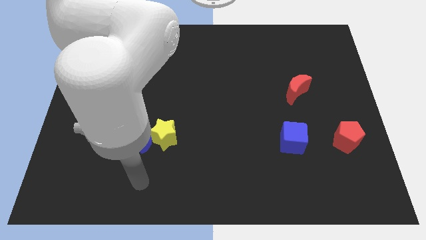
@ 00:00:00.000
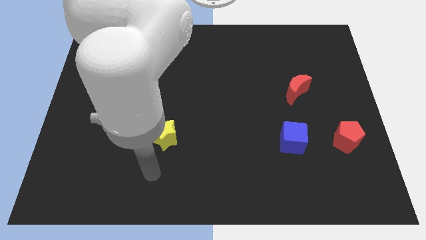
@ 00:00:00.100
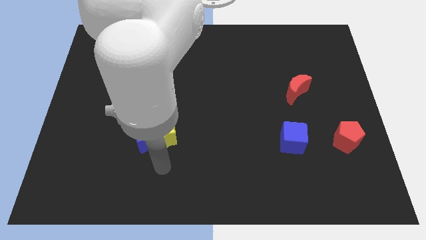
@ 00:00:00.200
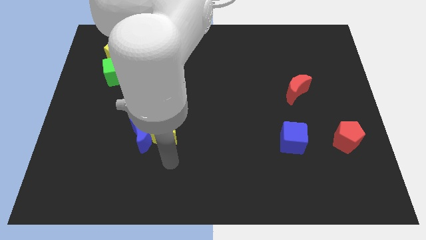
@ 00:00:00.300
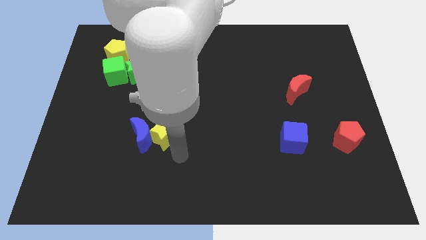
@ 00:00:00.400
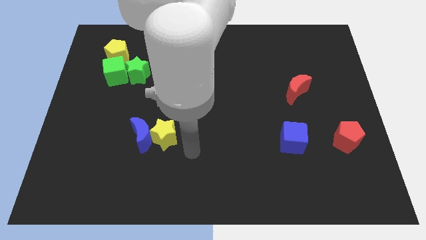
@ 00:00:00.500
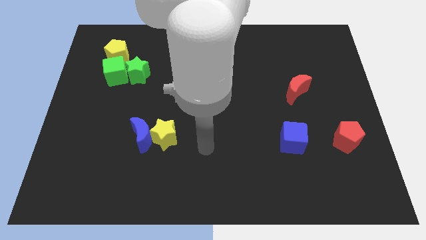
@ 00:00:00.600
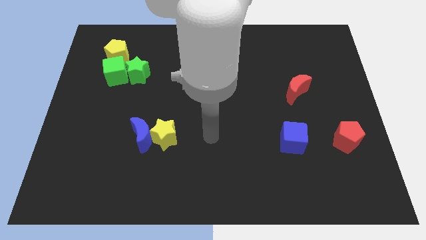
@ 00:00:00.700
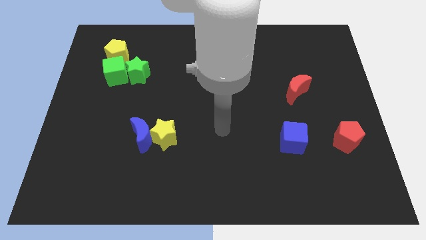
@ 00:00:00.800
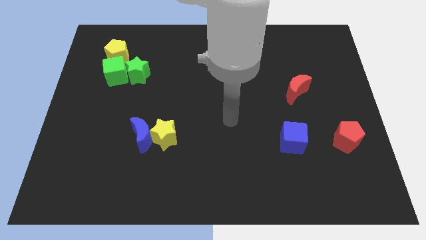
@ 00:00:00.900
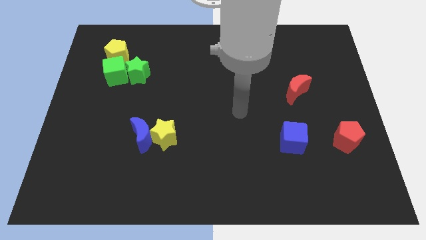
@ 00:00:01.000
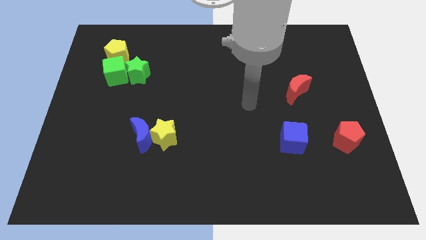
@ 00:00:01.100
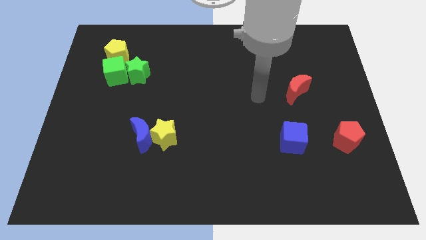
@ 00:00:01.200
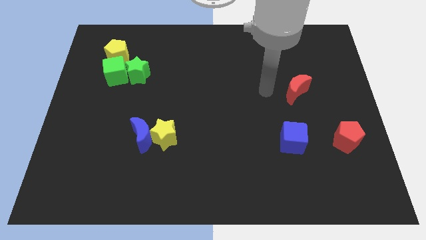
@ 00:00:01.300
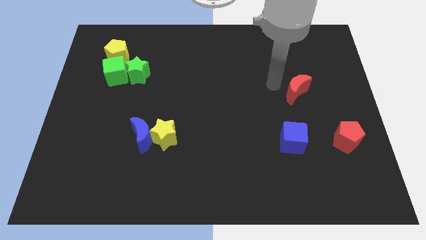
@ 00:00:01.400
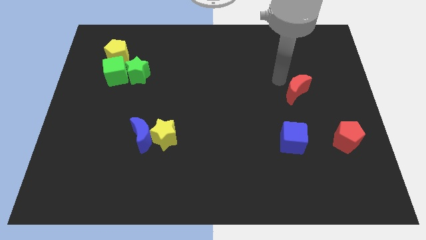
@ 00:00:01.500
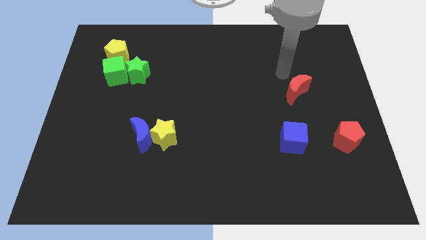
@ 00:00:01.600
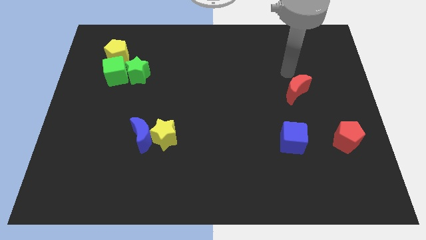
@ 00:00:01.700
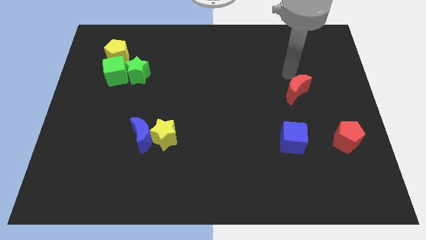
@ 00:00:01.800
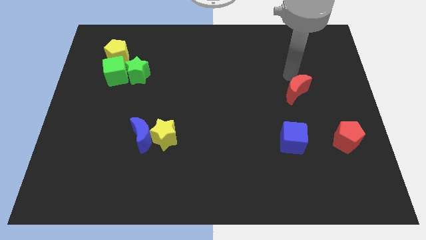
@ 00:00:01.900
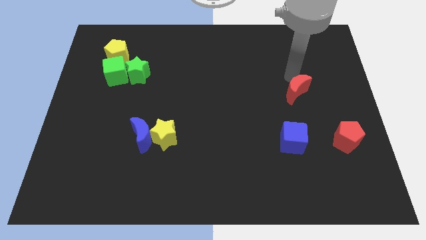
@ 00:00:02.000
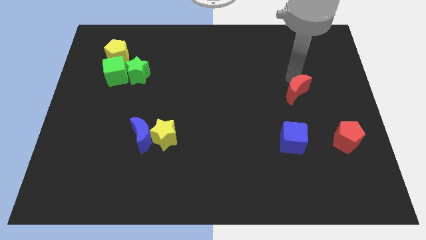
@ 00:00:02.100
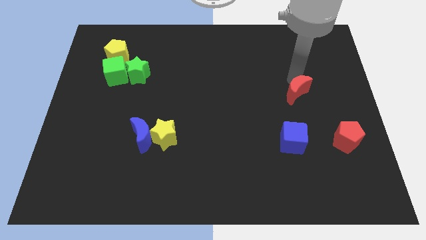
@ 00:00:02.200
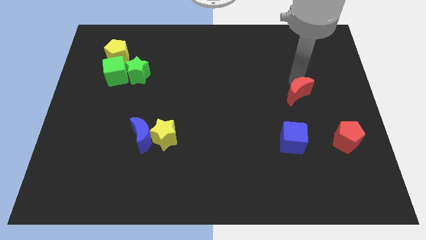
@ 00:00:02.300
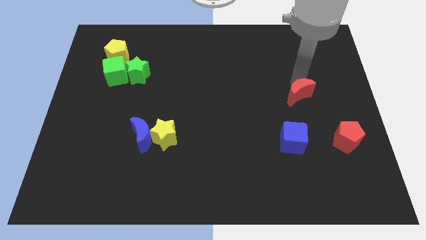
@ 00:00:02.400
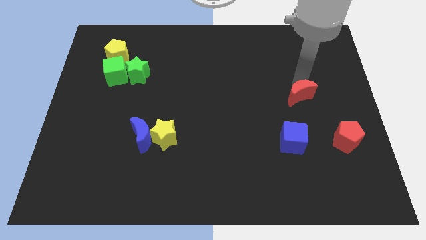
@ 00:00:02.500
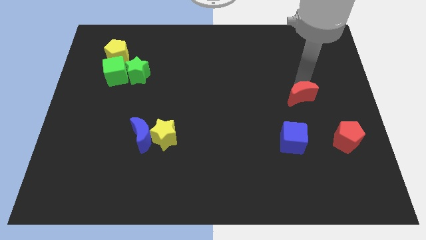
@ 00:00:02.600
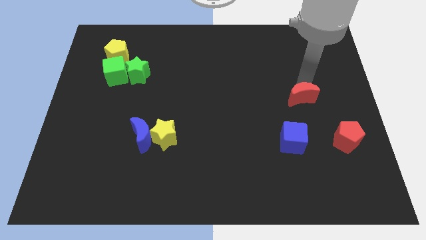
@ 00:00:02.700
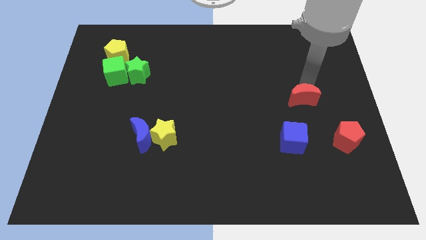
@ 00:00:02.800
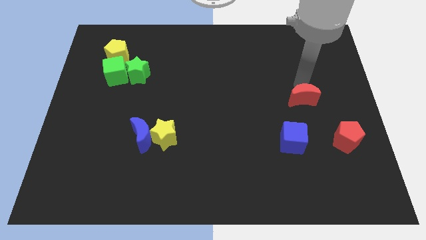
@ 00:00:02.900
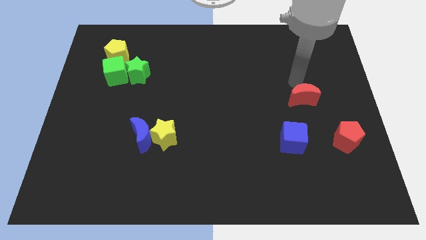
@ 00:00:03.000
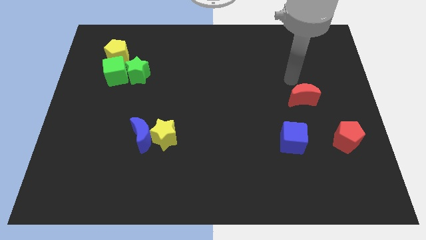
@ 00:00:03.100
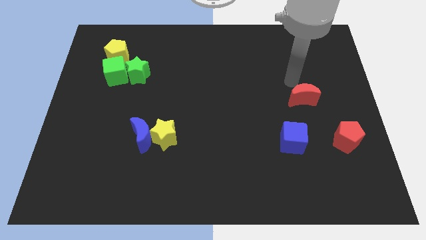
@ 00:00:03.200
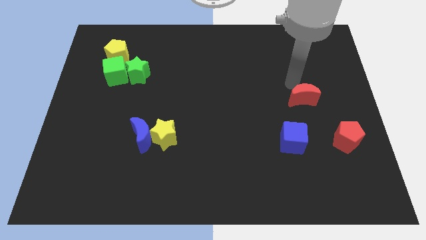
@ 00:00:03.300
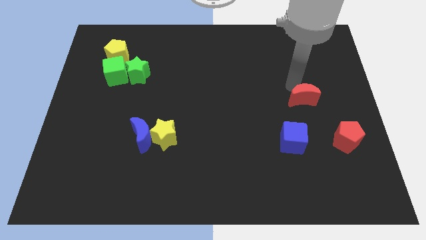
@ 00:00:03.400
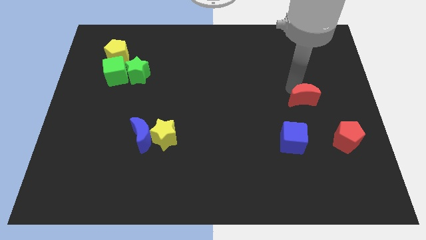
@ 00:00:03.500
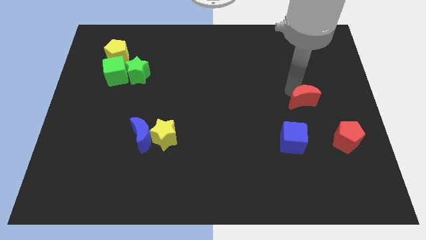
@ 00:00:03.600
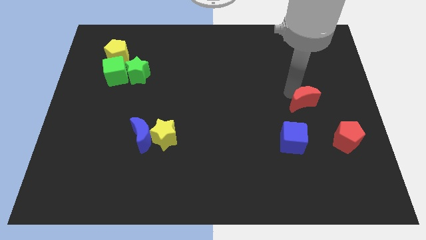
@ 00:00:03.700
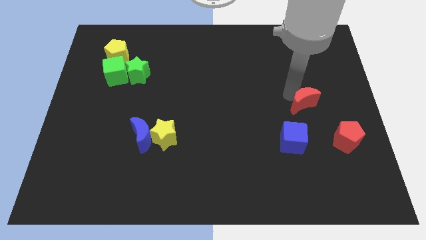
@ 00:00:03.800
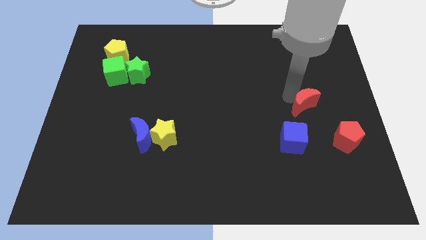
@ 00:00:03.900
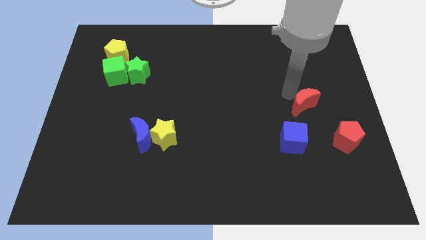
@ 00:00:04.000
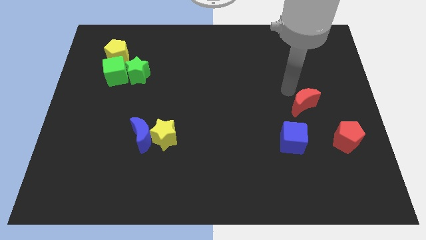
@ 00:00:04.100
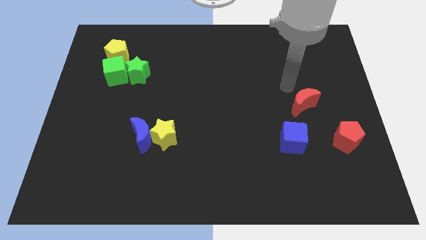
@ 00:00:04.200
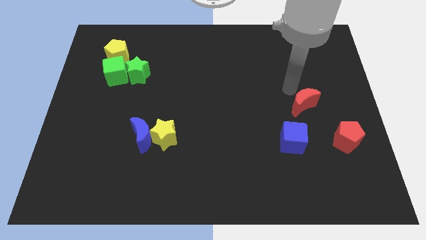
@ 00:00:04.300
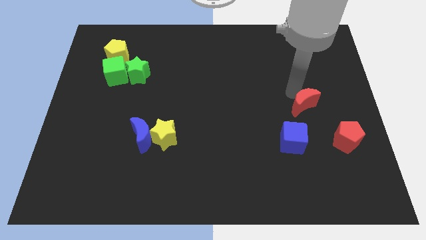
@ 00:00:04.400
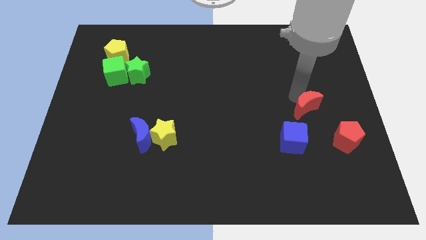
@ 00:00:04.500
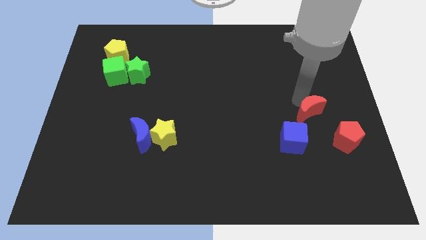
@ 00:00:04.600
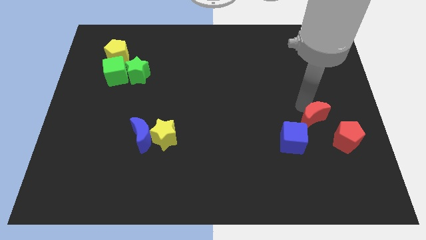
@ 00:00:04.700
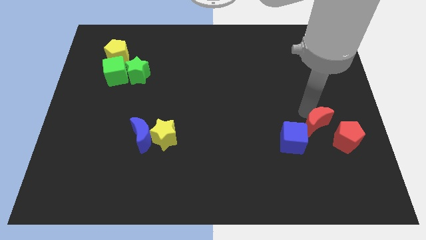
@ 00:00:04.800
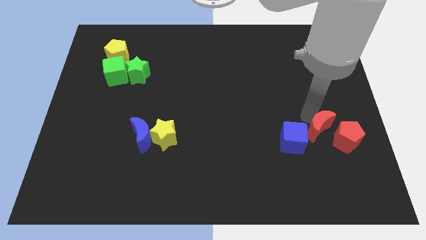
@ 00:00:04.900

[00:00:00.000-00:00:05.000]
move the red moon close to the red pentagon

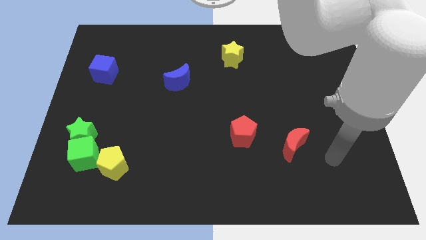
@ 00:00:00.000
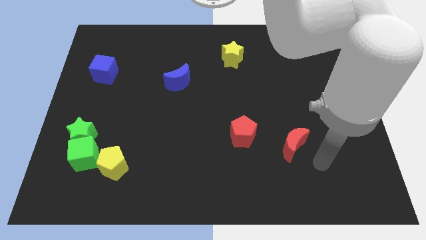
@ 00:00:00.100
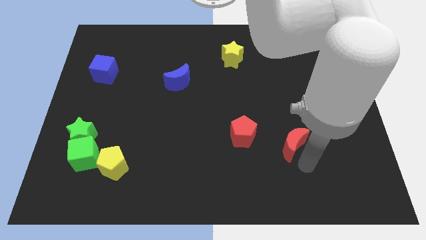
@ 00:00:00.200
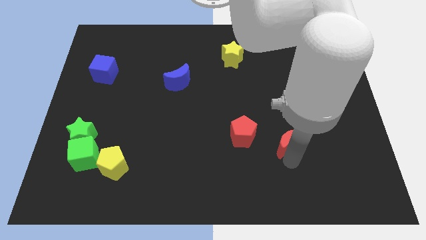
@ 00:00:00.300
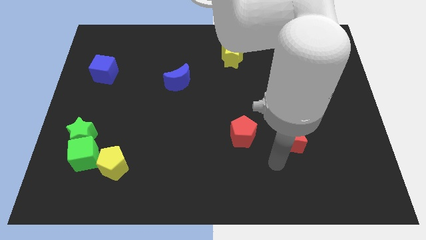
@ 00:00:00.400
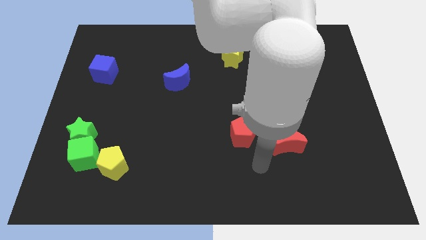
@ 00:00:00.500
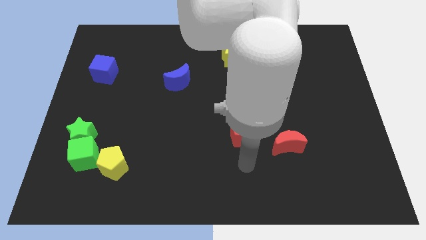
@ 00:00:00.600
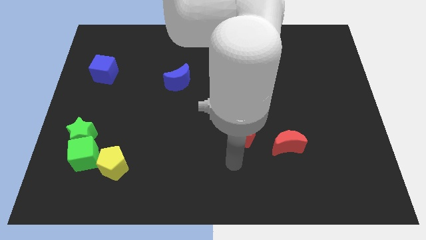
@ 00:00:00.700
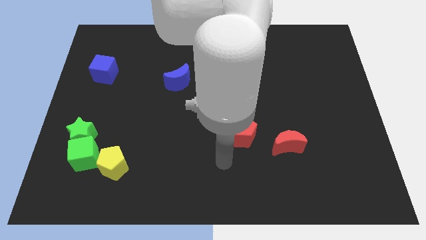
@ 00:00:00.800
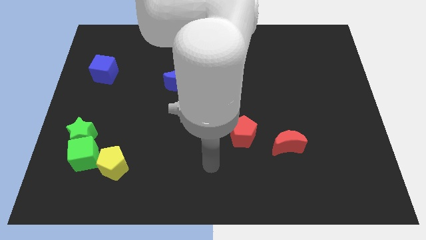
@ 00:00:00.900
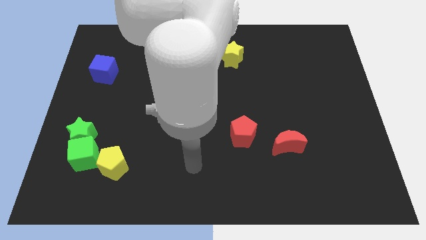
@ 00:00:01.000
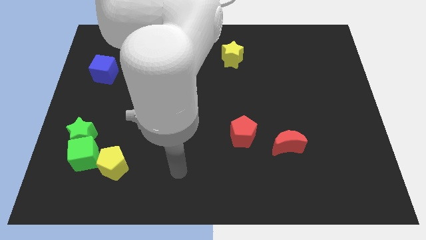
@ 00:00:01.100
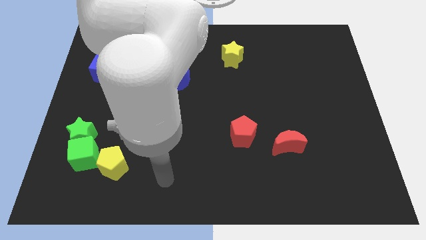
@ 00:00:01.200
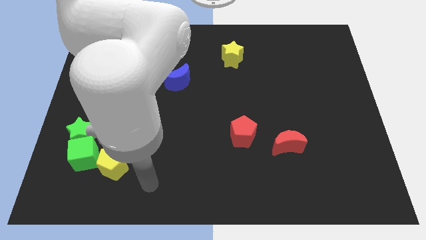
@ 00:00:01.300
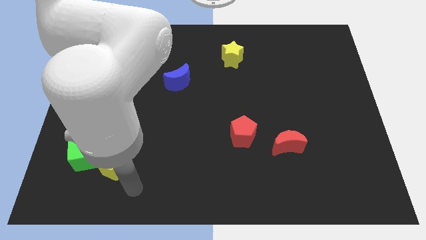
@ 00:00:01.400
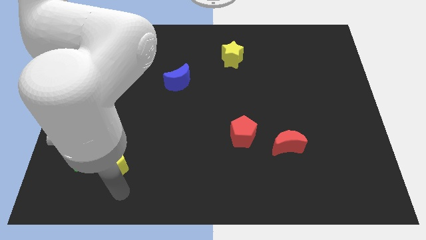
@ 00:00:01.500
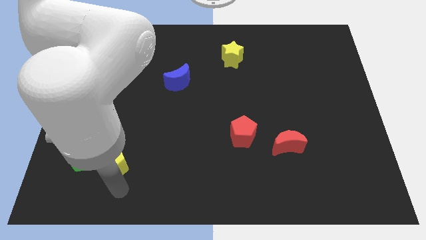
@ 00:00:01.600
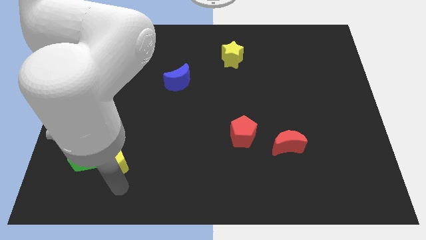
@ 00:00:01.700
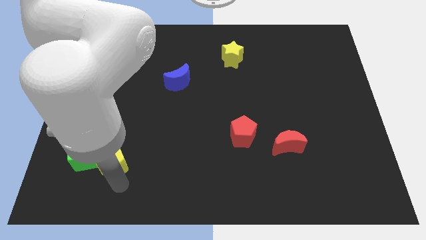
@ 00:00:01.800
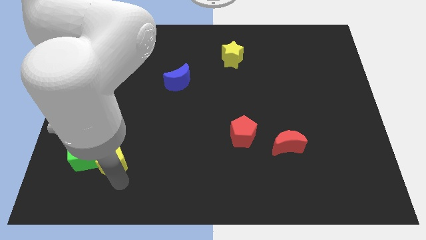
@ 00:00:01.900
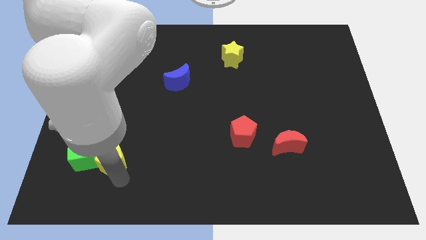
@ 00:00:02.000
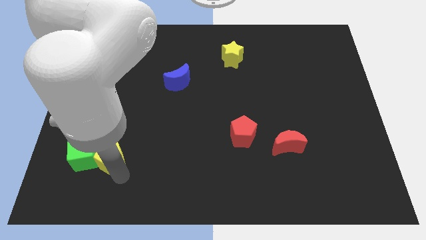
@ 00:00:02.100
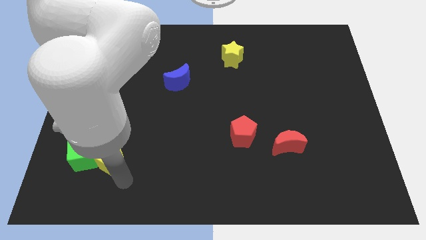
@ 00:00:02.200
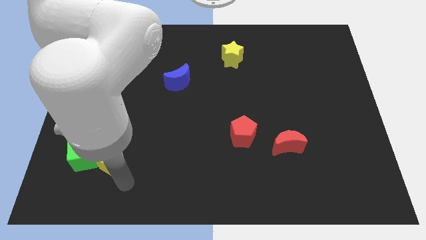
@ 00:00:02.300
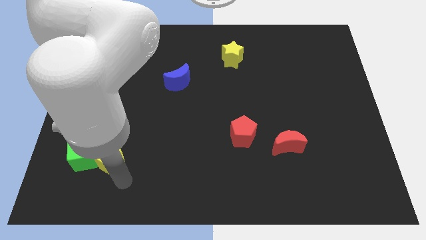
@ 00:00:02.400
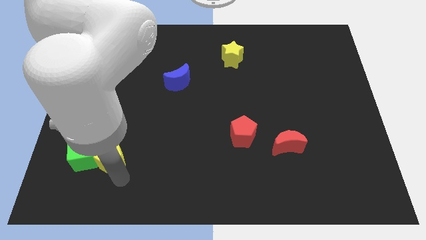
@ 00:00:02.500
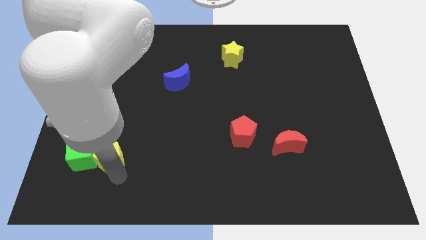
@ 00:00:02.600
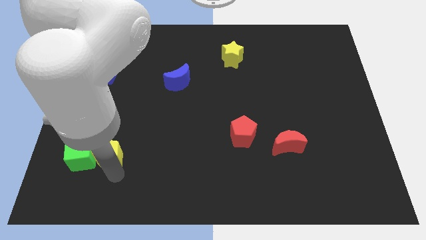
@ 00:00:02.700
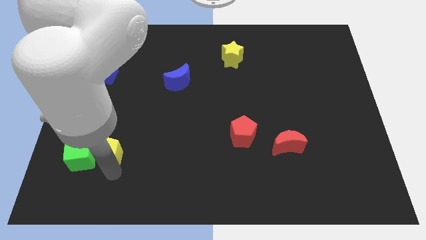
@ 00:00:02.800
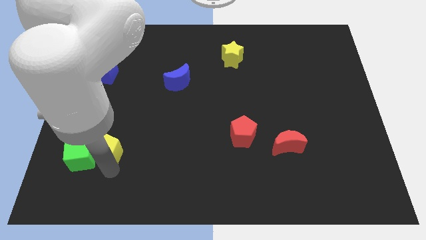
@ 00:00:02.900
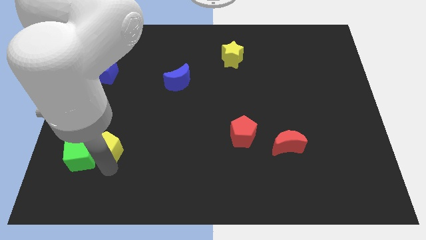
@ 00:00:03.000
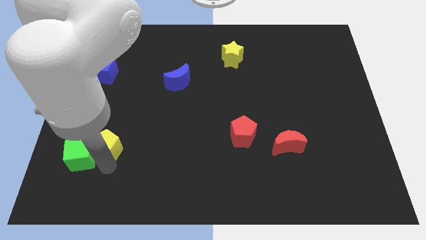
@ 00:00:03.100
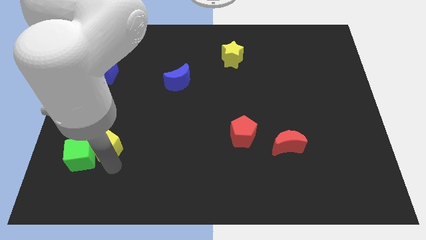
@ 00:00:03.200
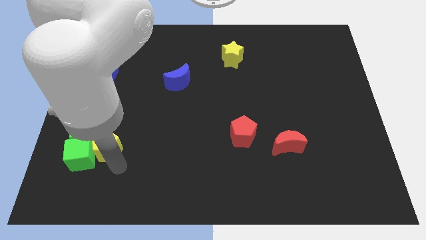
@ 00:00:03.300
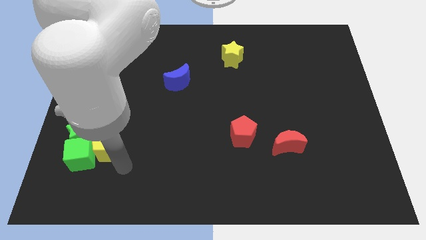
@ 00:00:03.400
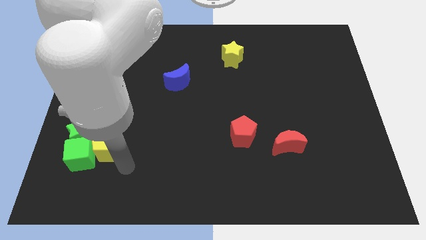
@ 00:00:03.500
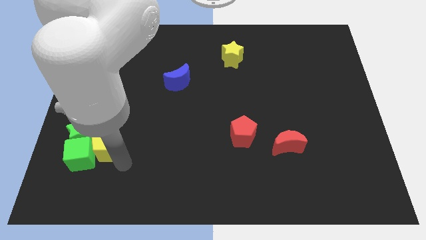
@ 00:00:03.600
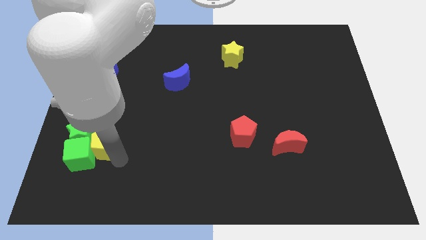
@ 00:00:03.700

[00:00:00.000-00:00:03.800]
slide the yellow pentagon close to the green star
